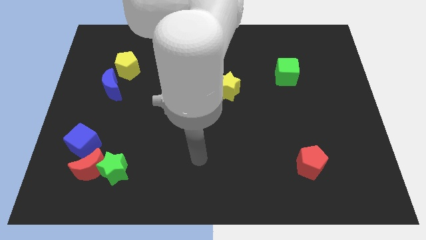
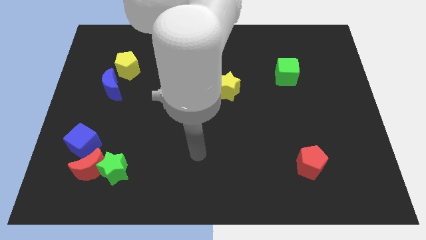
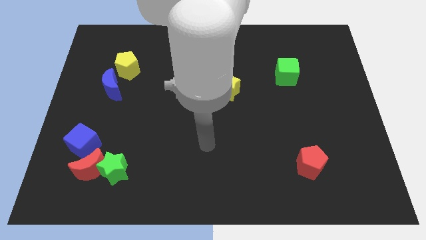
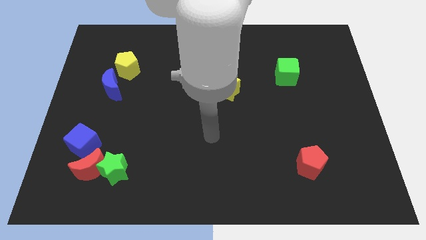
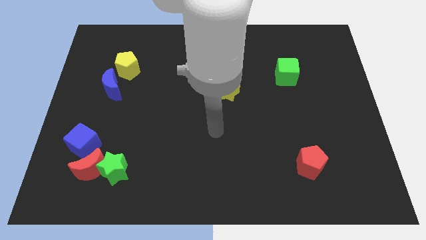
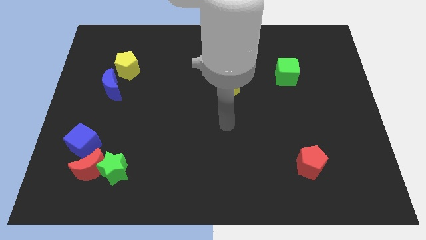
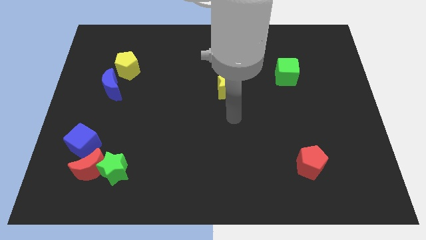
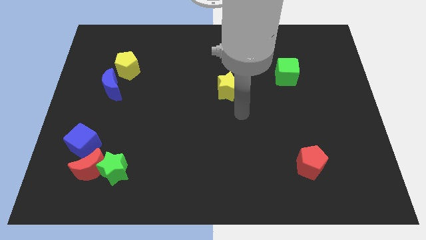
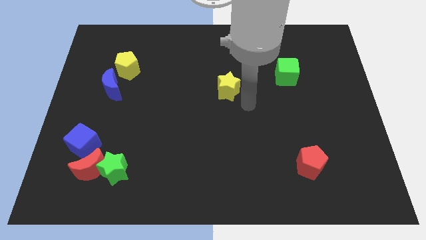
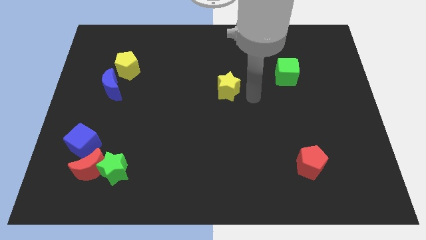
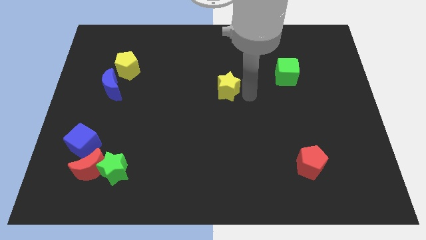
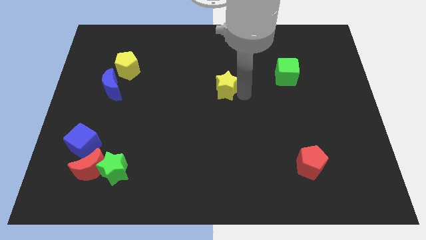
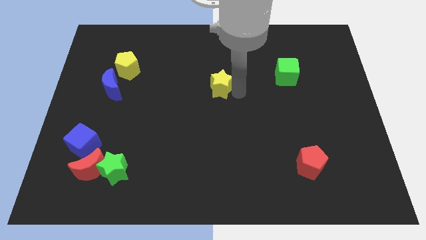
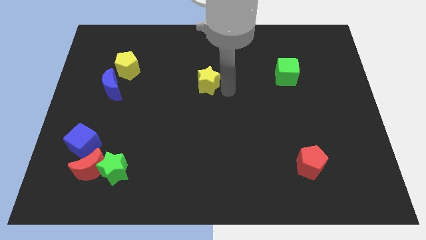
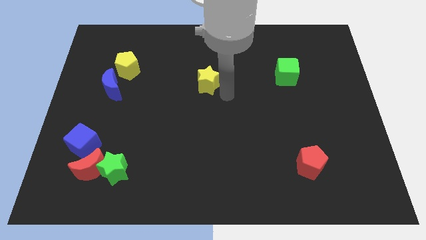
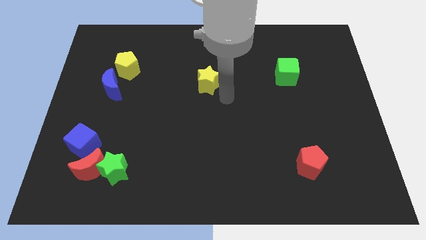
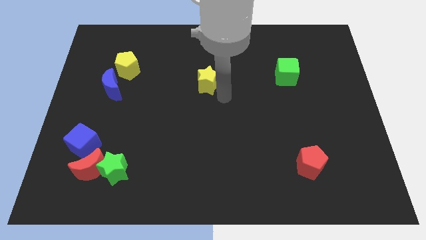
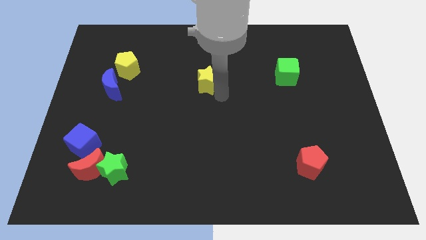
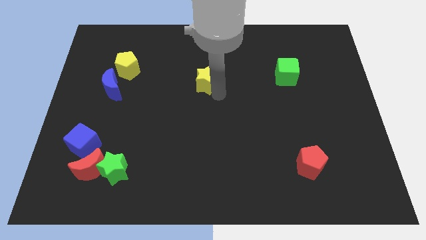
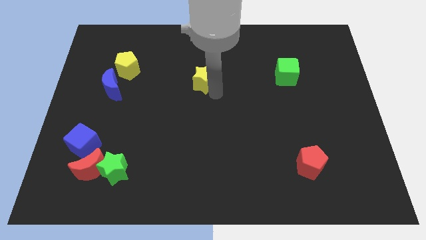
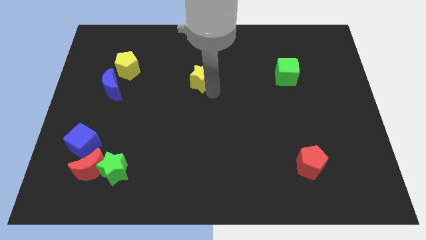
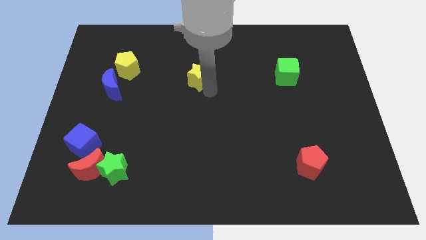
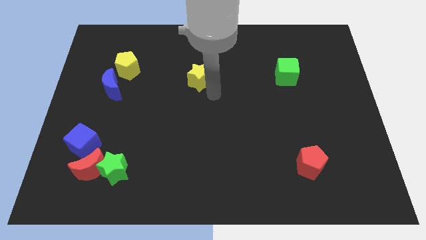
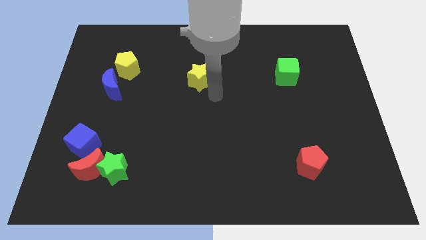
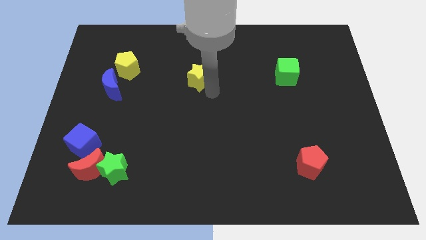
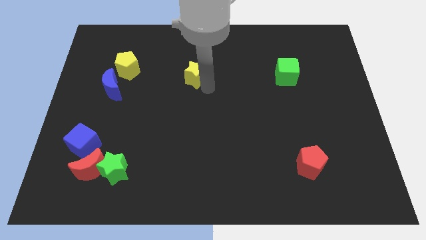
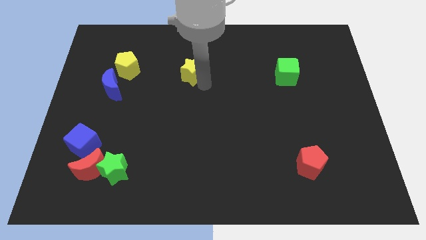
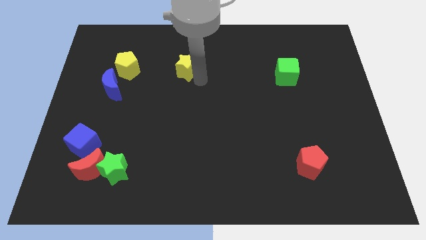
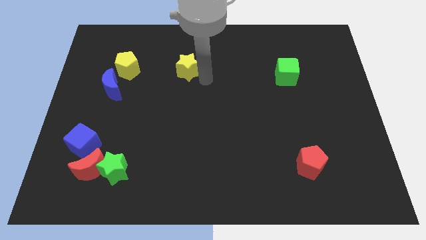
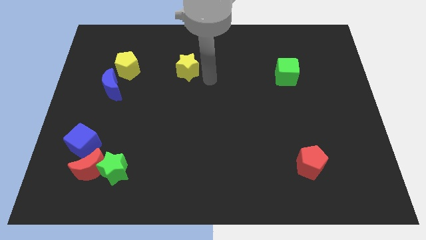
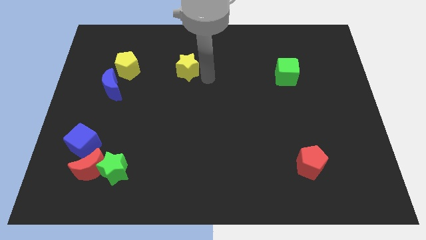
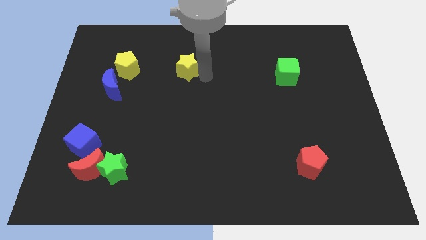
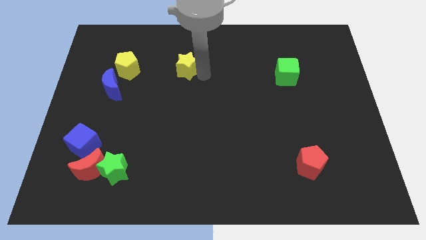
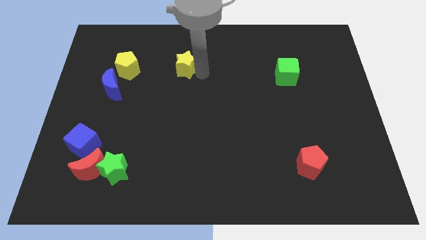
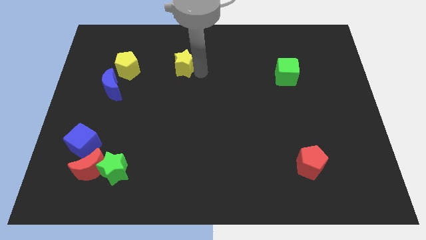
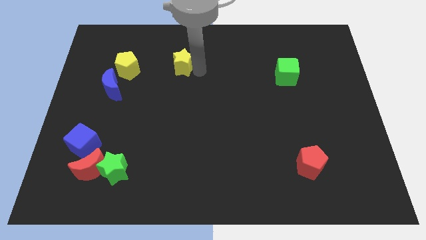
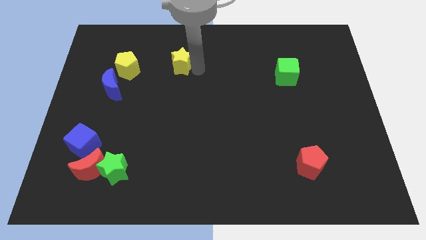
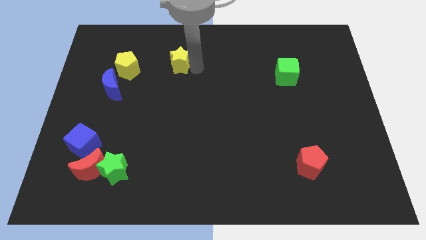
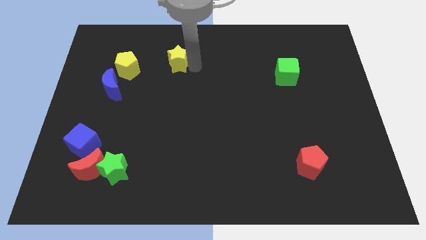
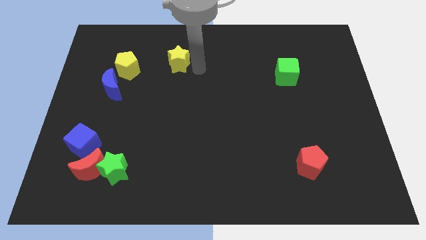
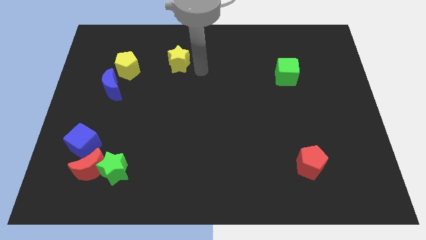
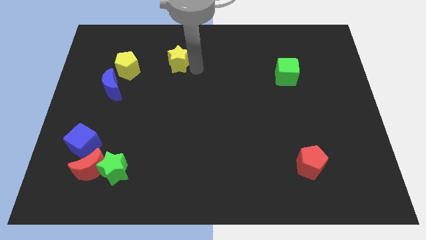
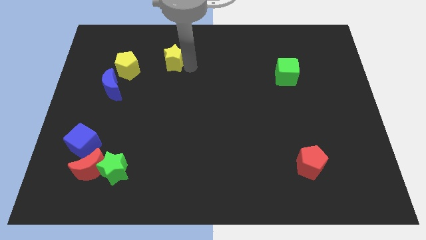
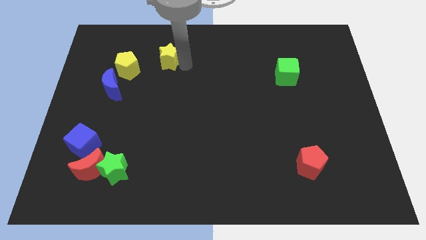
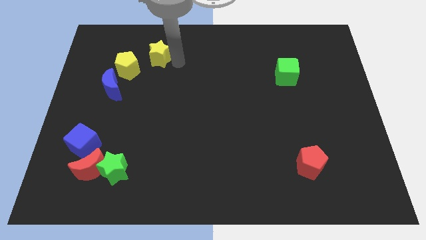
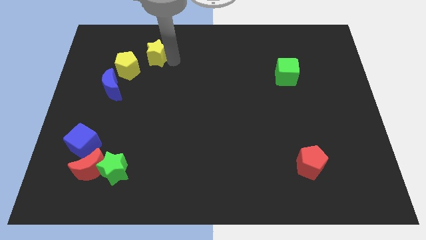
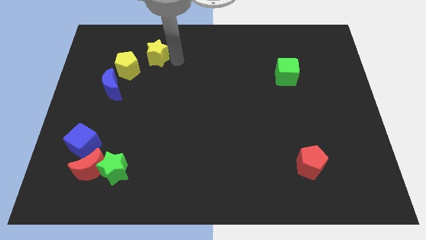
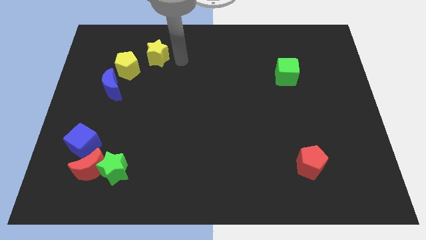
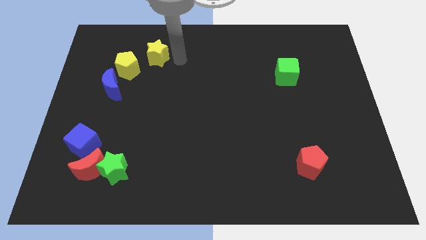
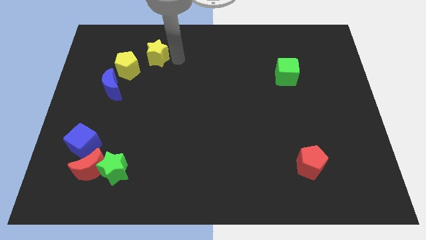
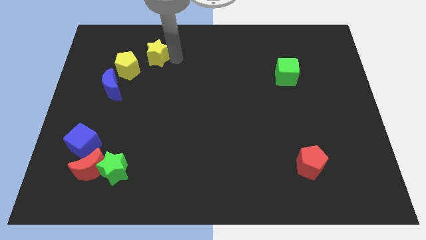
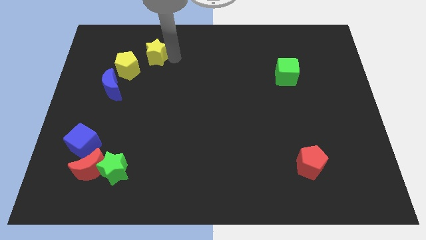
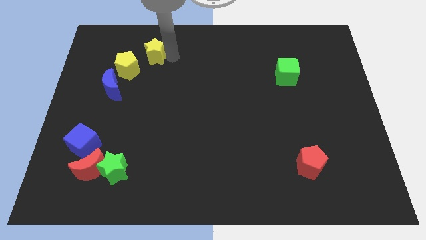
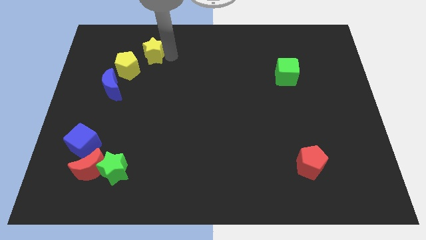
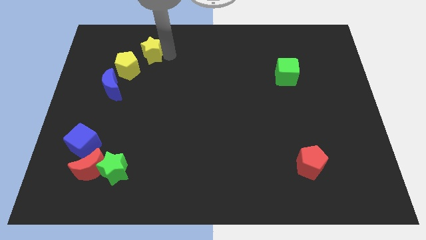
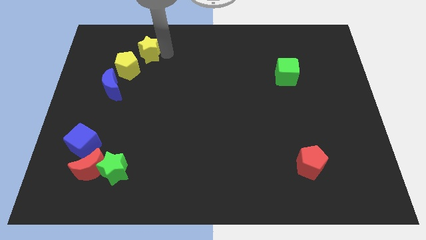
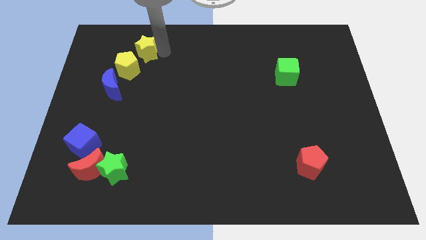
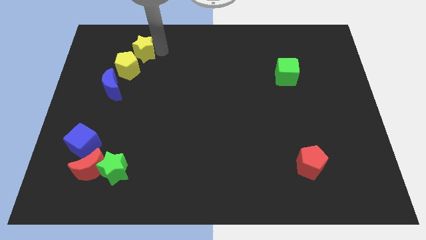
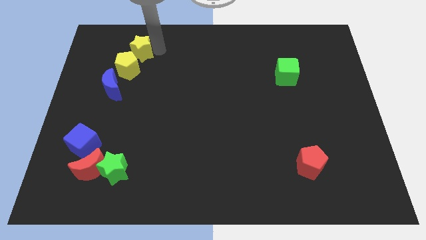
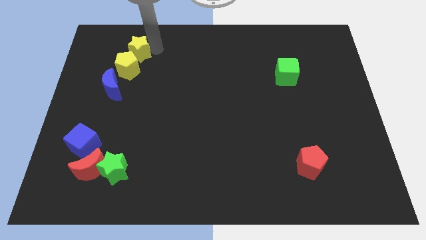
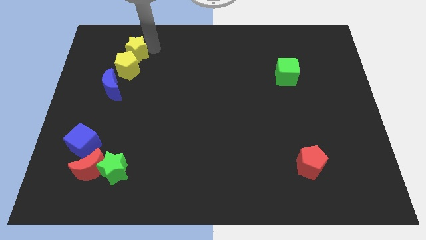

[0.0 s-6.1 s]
put the yellow star above the blue moon

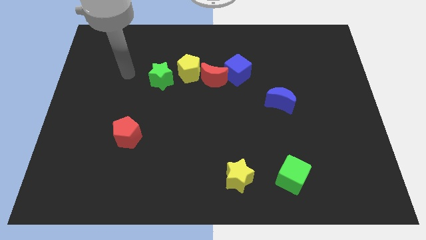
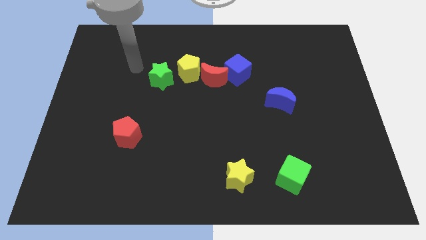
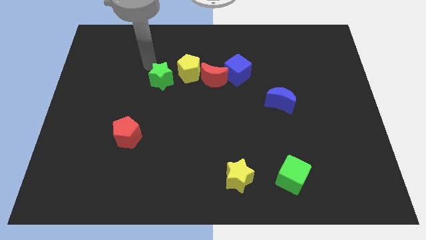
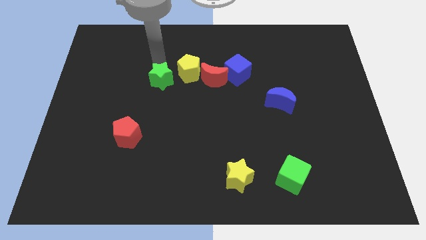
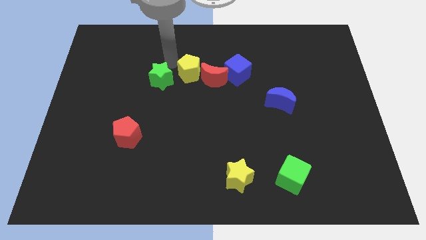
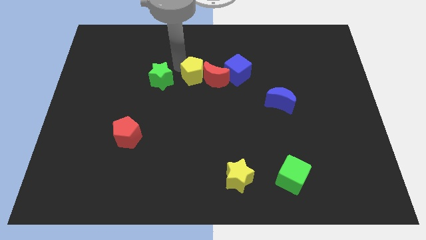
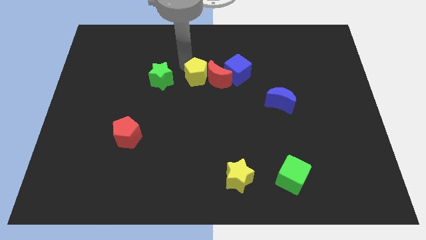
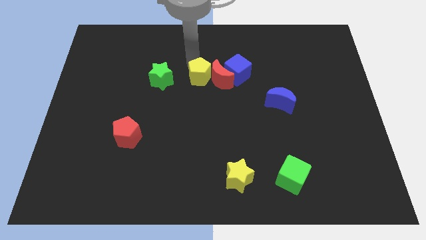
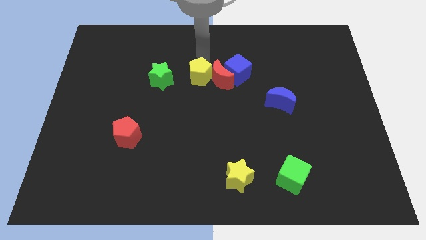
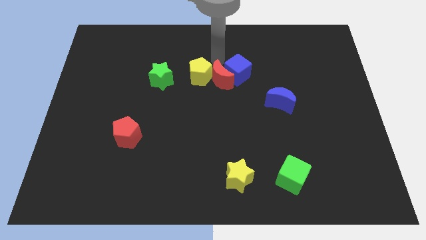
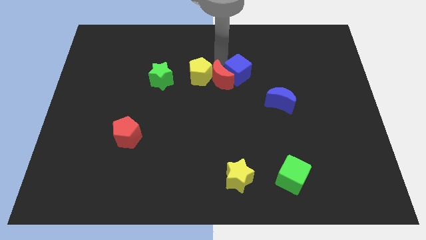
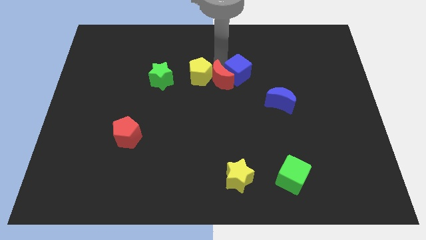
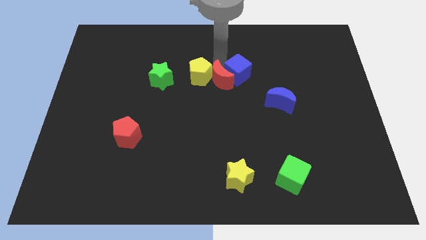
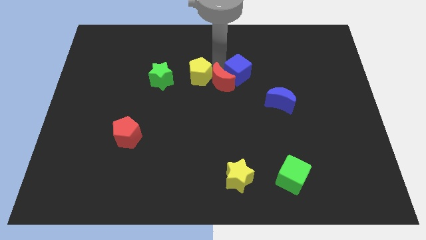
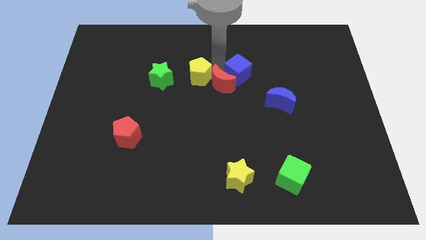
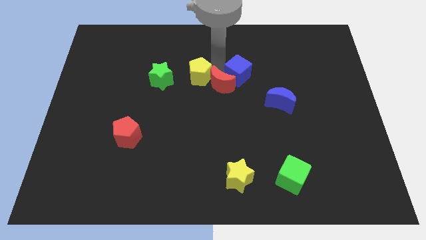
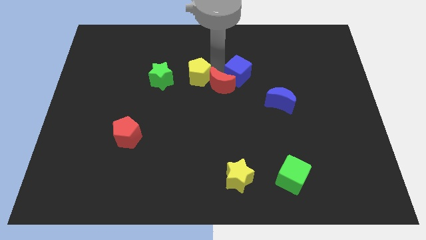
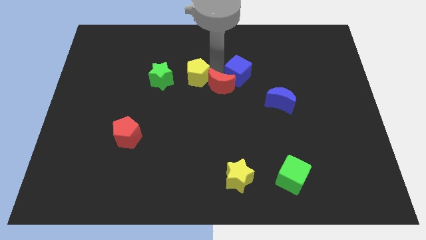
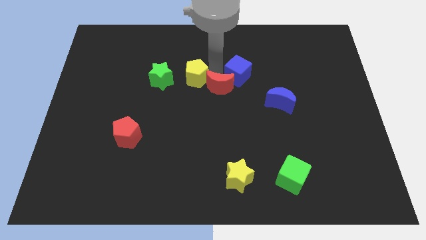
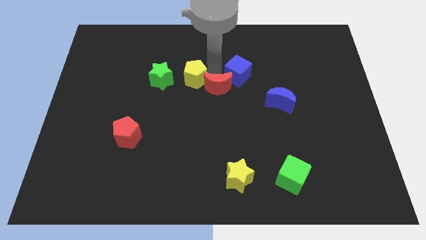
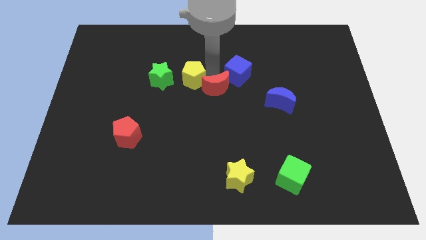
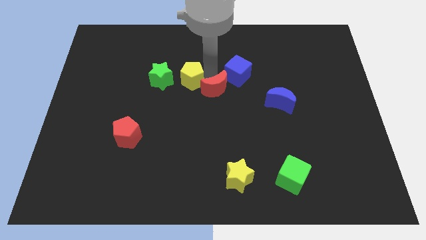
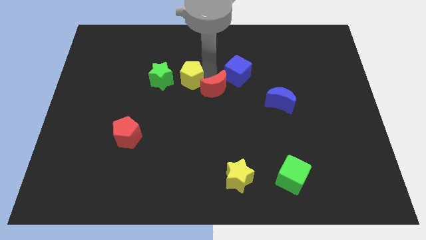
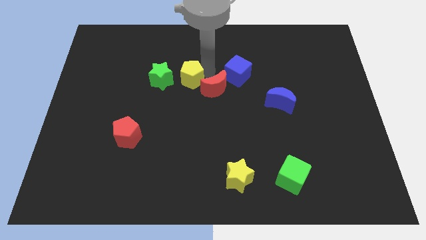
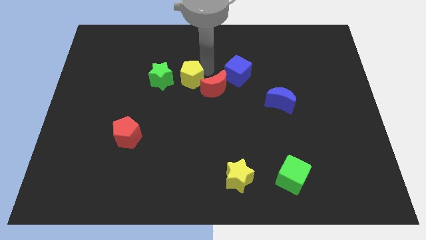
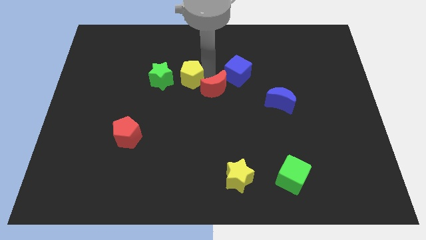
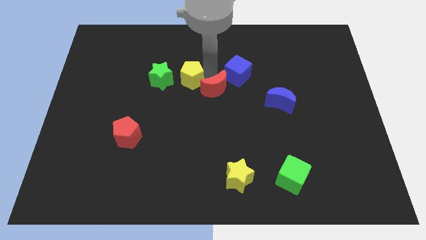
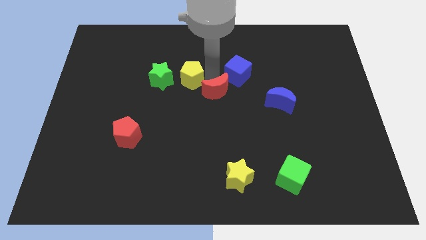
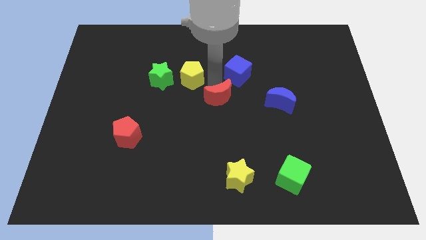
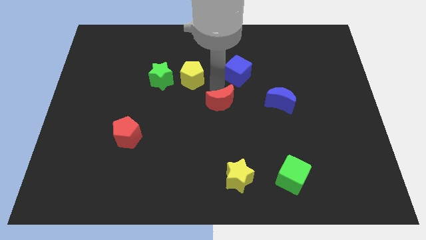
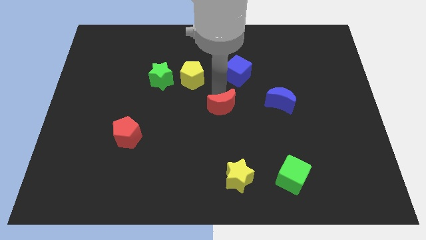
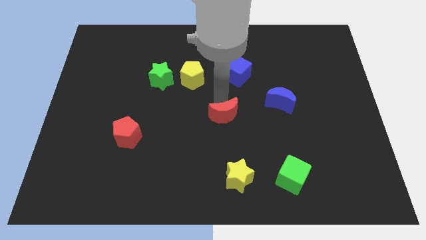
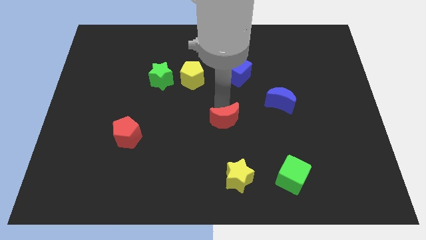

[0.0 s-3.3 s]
put the red moon to the top side of the yellow star
